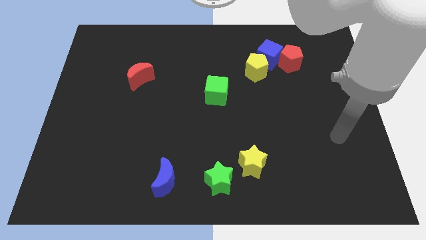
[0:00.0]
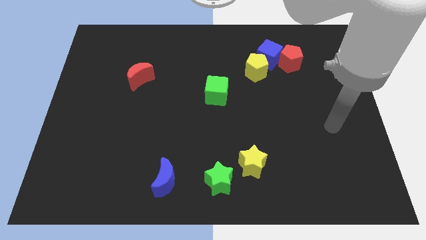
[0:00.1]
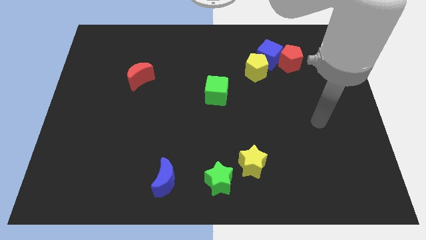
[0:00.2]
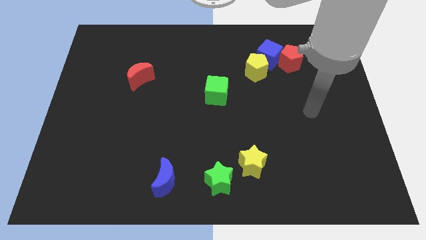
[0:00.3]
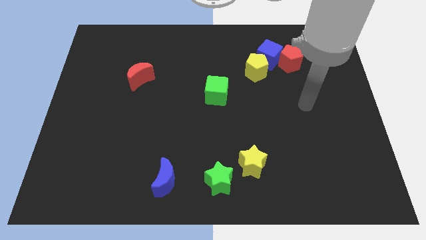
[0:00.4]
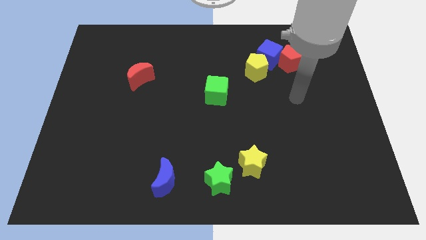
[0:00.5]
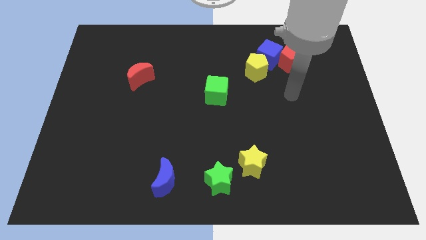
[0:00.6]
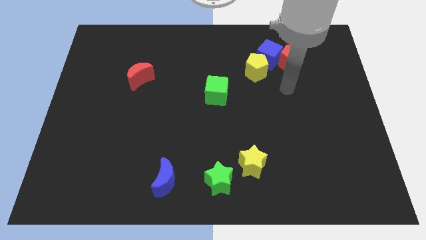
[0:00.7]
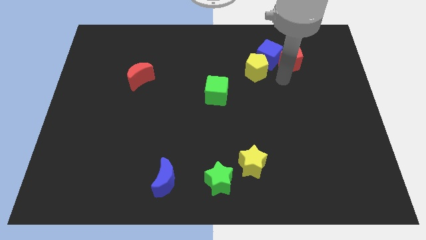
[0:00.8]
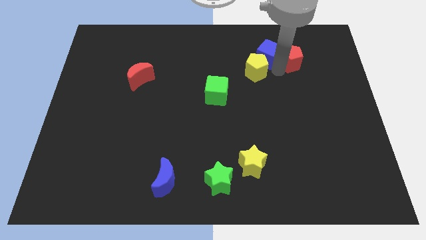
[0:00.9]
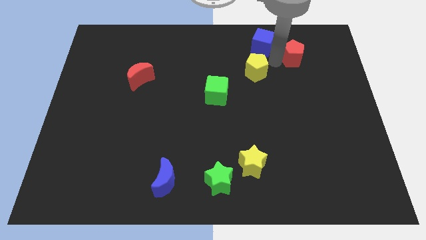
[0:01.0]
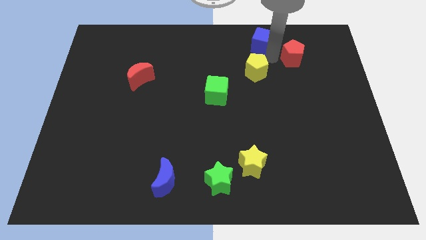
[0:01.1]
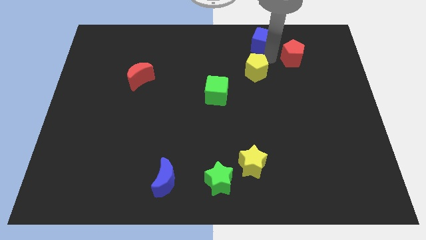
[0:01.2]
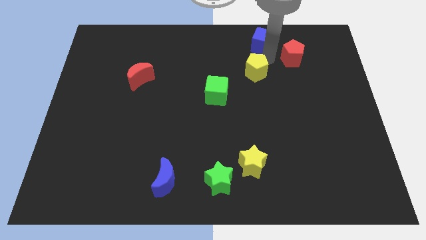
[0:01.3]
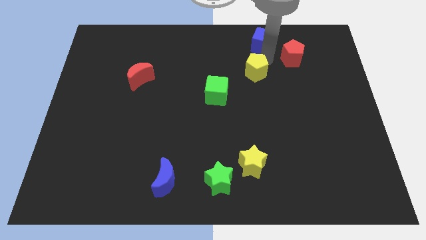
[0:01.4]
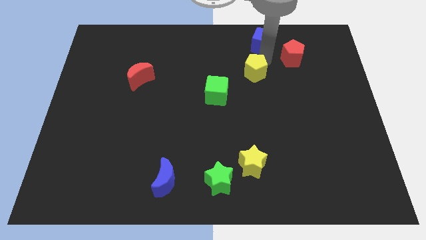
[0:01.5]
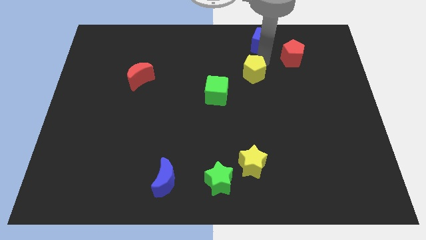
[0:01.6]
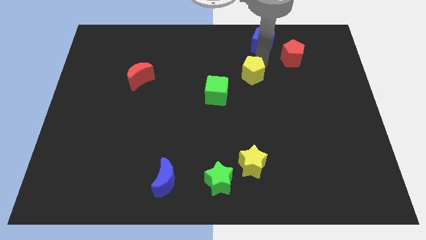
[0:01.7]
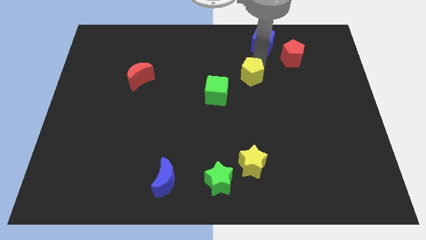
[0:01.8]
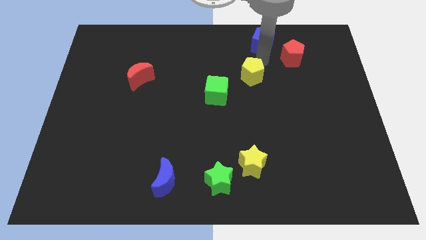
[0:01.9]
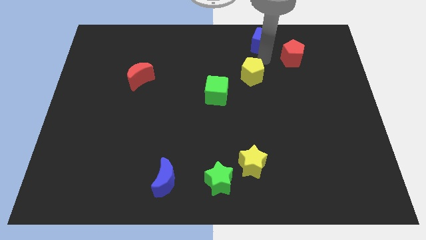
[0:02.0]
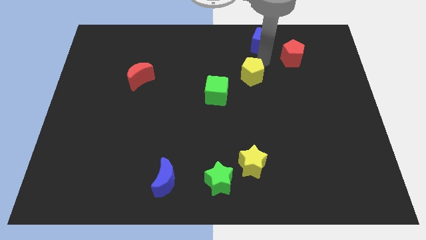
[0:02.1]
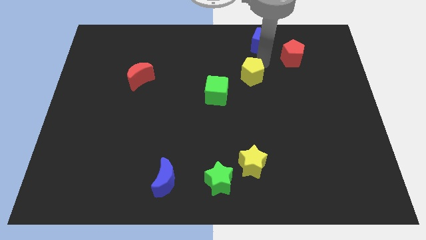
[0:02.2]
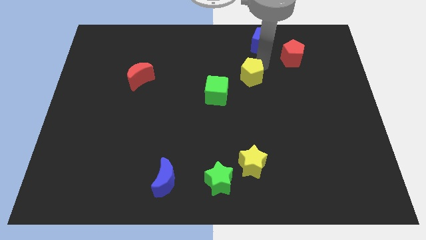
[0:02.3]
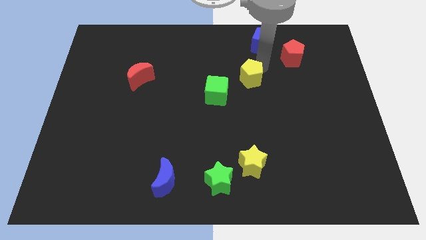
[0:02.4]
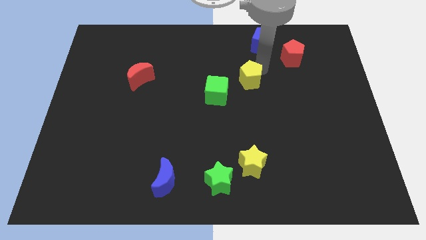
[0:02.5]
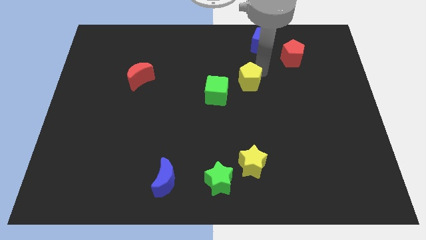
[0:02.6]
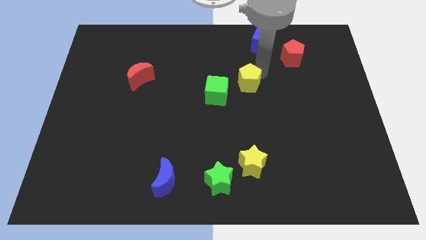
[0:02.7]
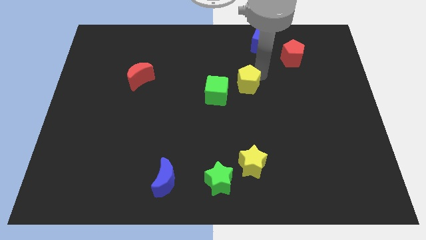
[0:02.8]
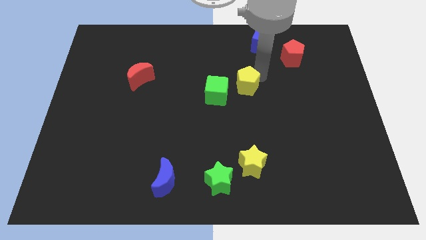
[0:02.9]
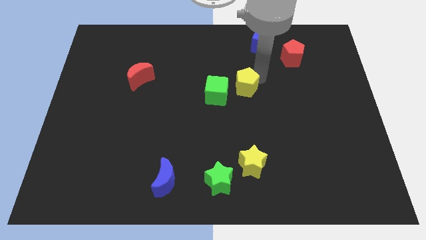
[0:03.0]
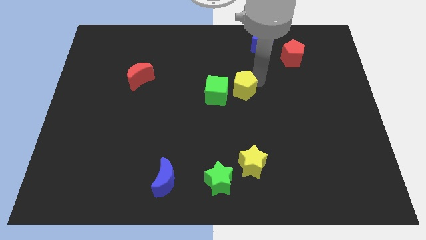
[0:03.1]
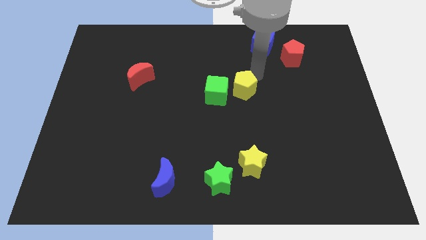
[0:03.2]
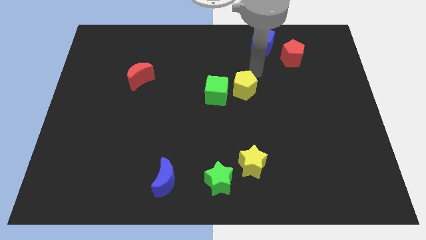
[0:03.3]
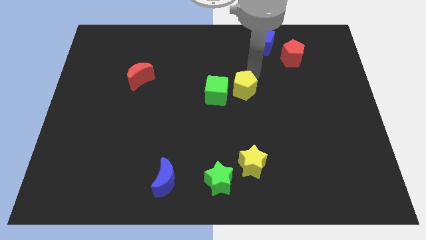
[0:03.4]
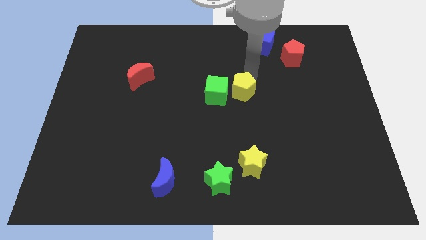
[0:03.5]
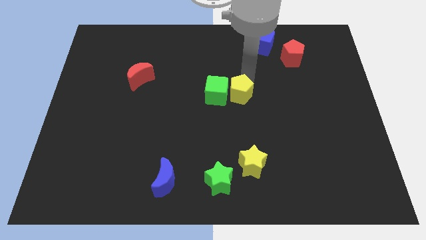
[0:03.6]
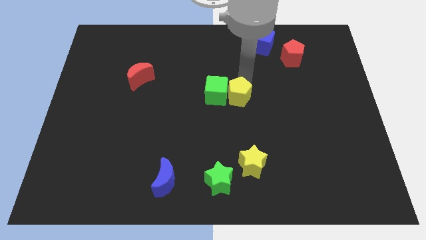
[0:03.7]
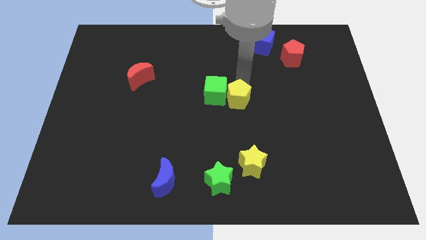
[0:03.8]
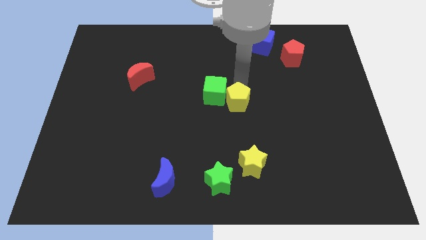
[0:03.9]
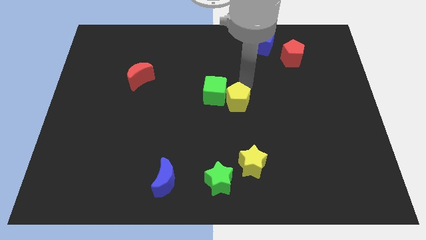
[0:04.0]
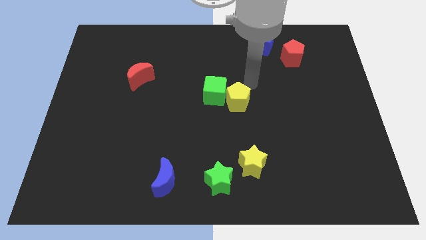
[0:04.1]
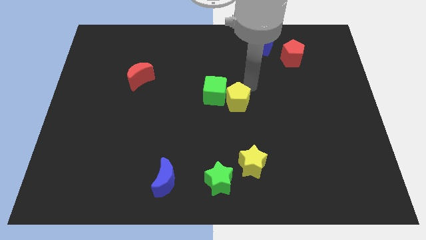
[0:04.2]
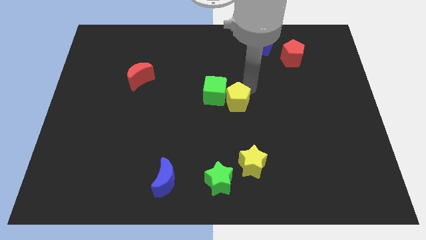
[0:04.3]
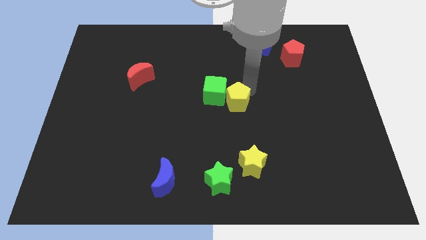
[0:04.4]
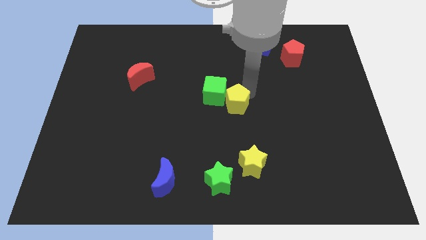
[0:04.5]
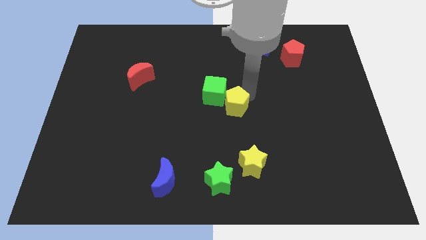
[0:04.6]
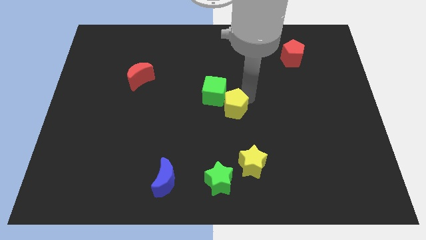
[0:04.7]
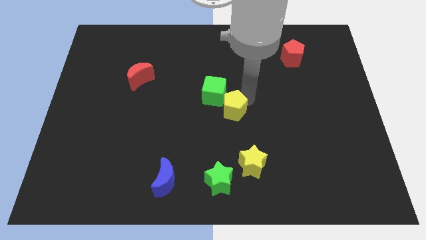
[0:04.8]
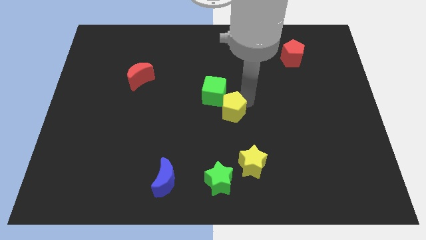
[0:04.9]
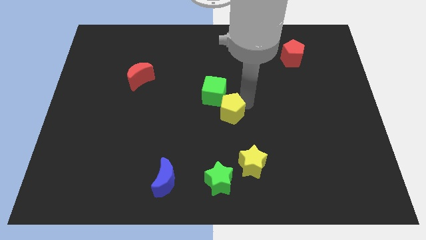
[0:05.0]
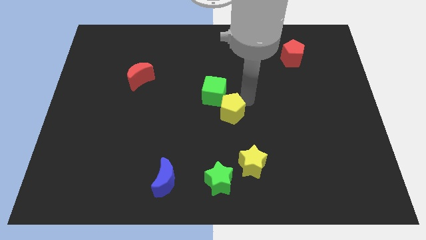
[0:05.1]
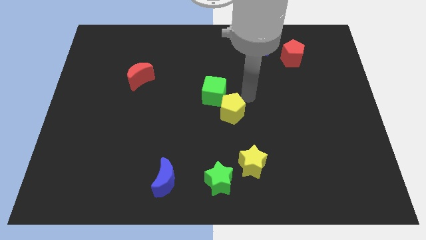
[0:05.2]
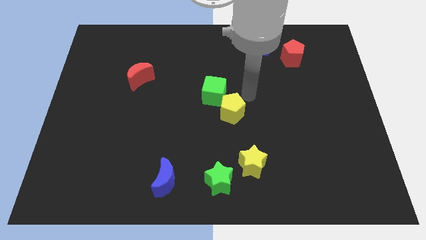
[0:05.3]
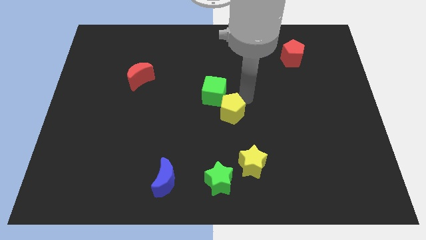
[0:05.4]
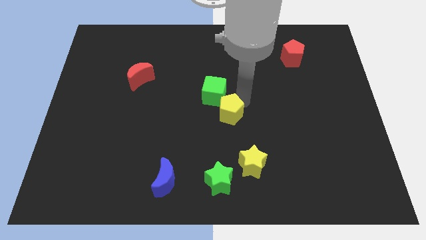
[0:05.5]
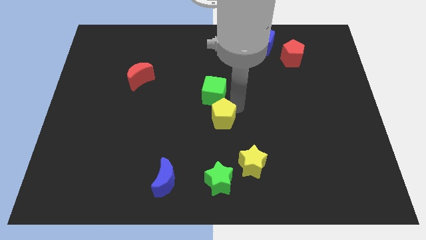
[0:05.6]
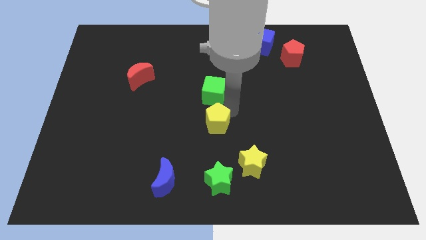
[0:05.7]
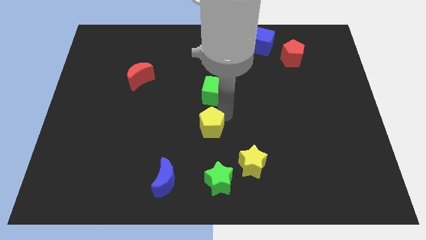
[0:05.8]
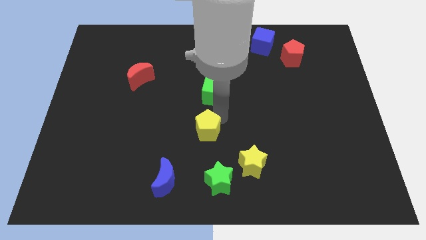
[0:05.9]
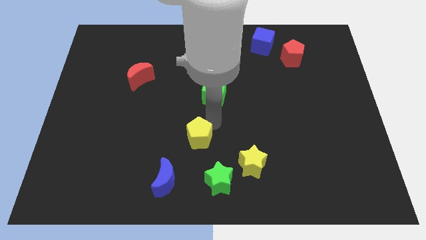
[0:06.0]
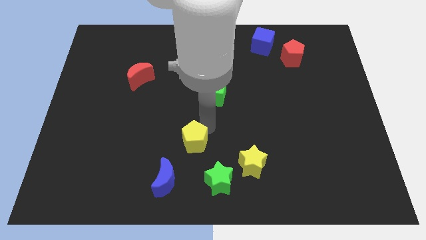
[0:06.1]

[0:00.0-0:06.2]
put the yellow pentagon to the top left side of the green star
